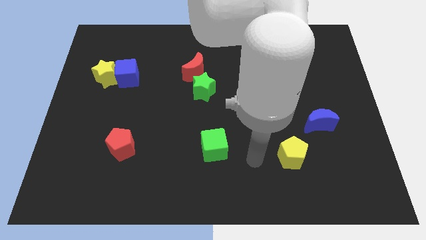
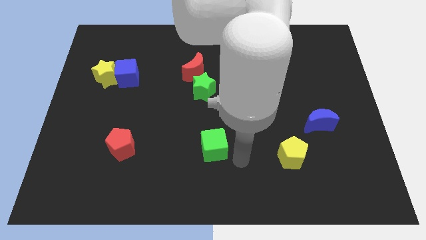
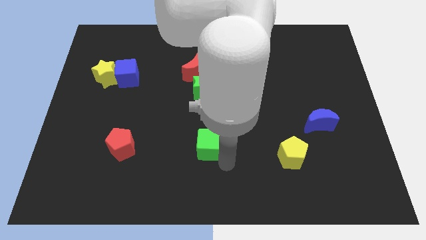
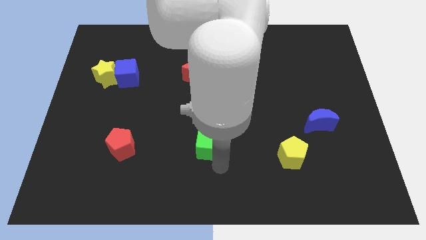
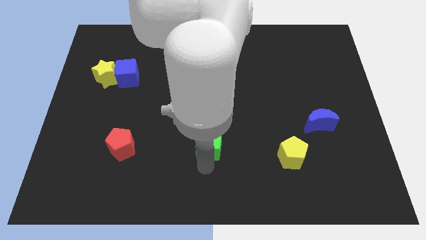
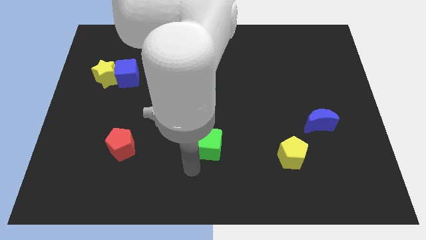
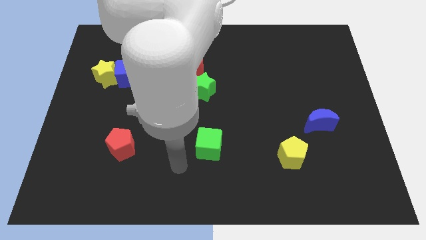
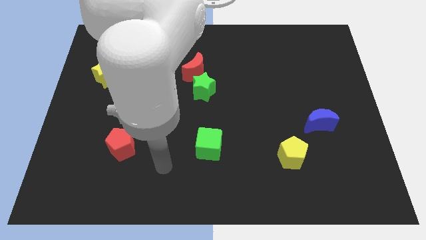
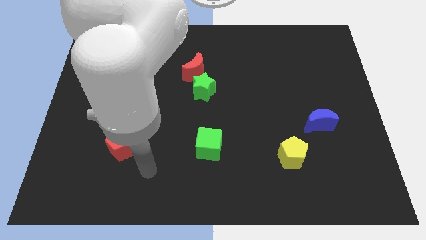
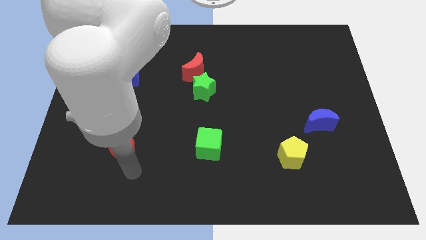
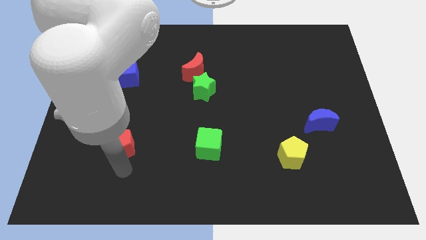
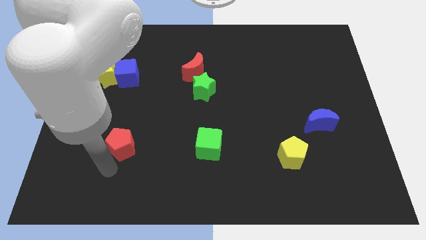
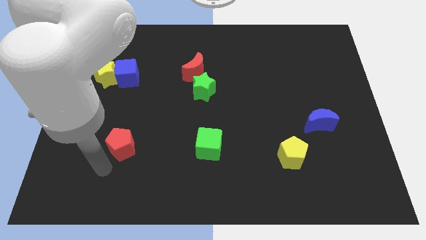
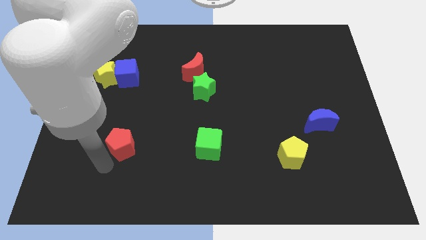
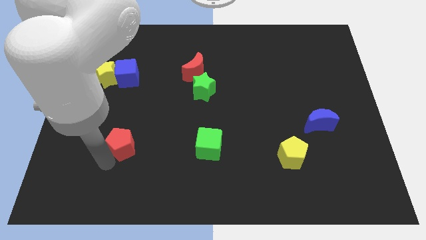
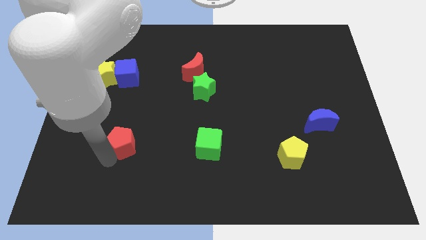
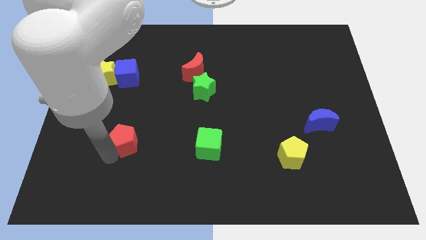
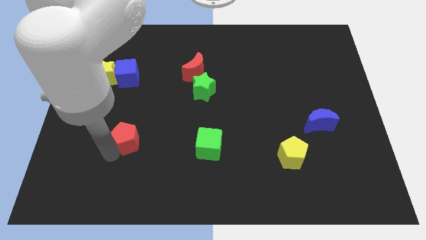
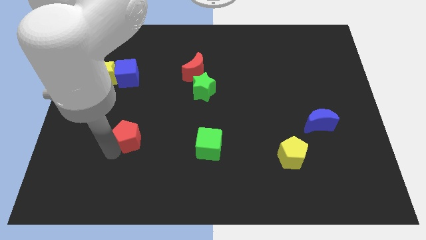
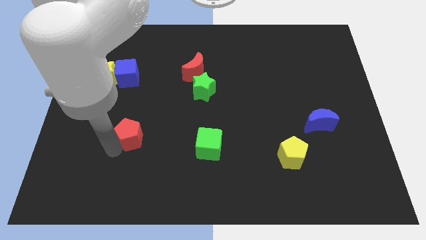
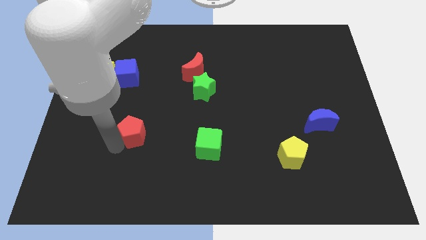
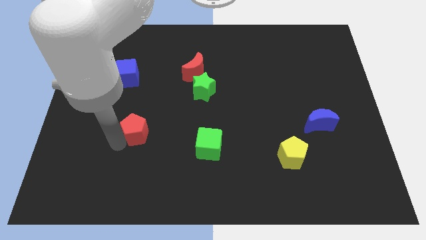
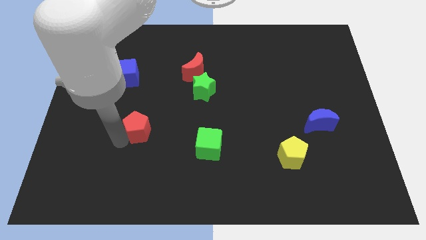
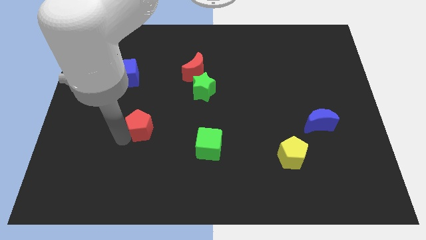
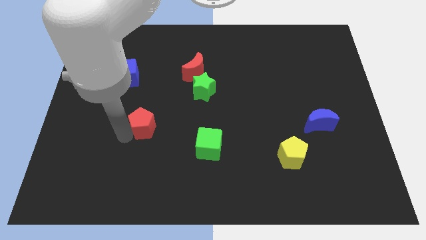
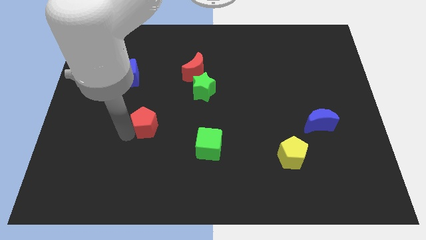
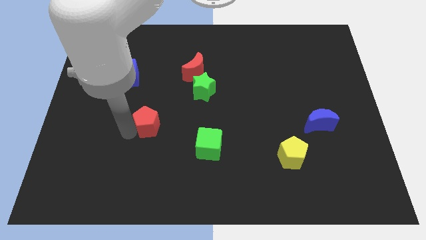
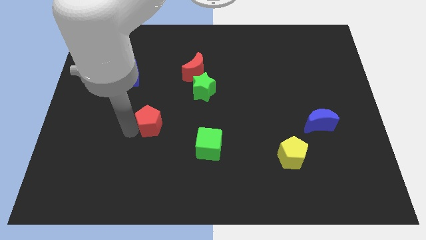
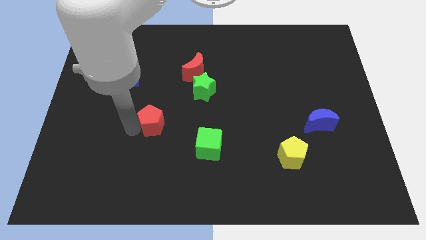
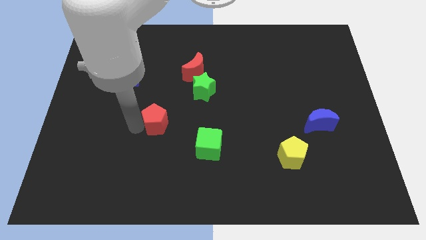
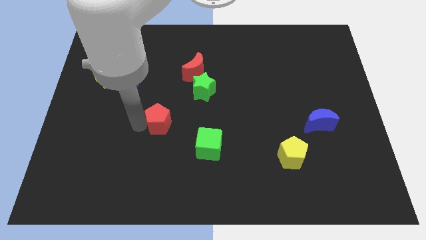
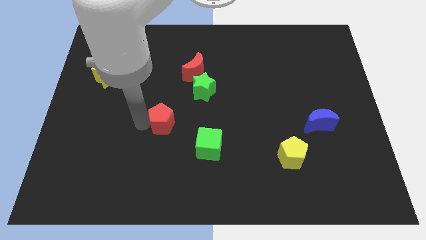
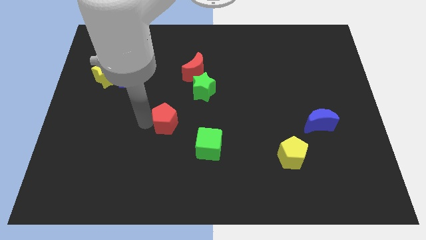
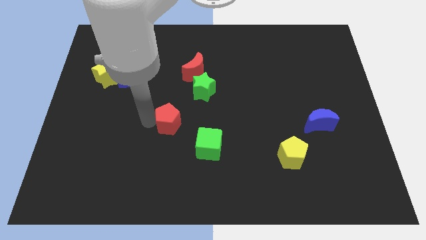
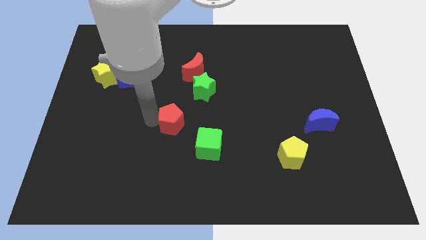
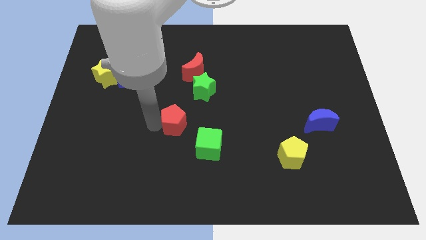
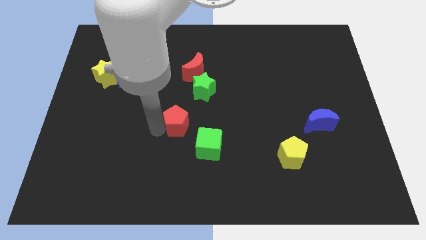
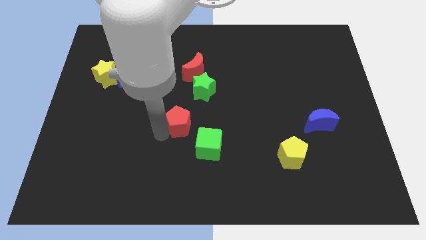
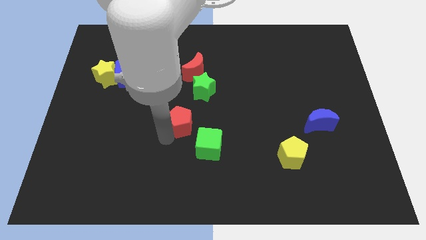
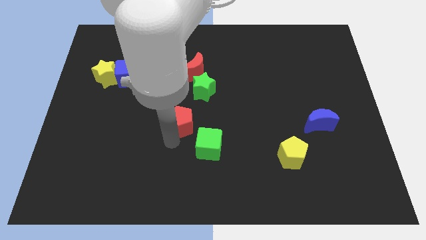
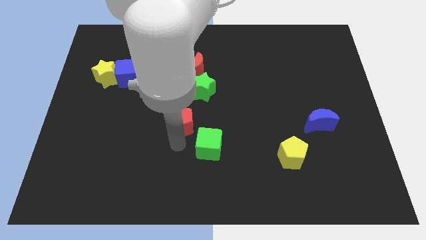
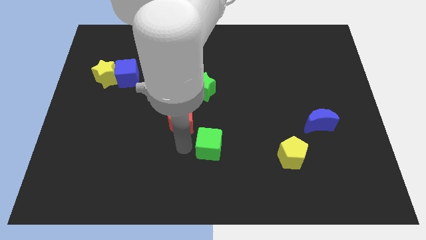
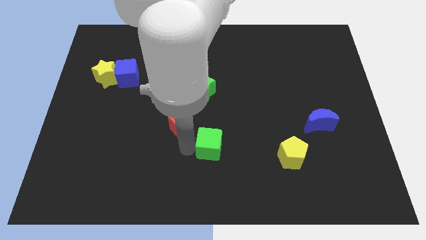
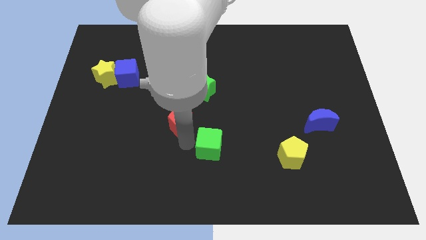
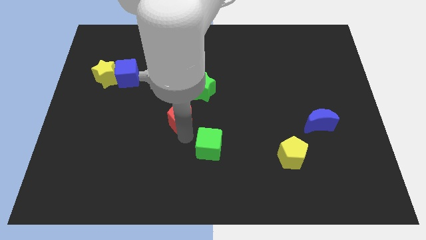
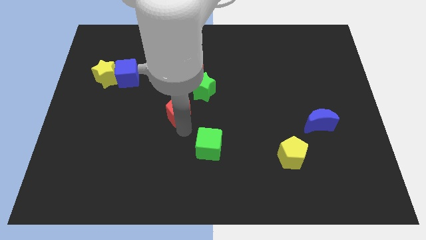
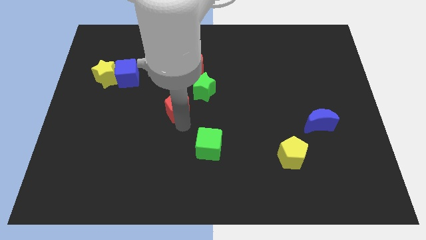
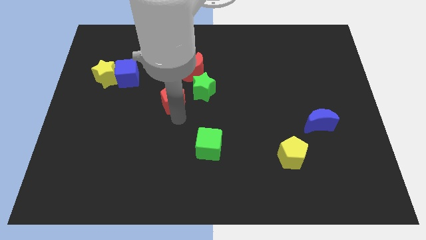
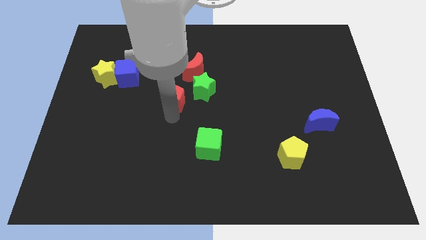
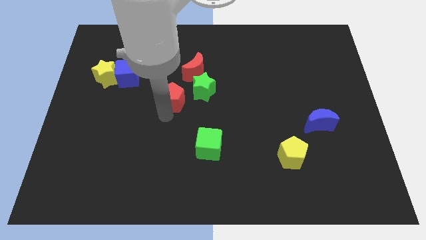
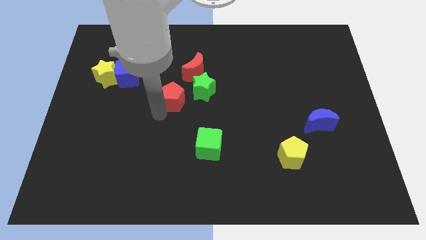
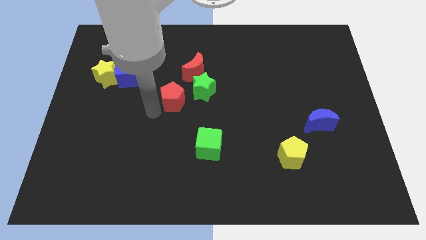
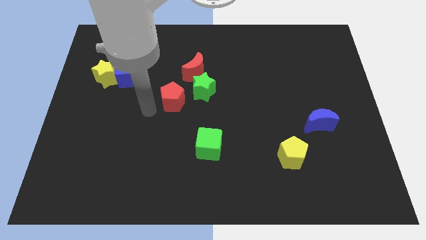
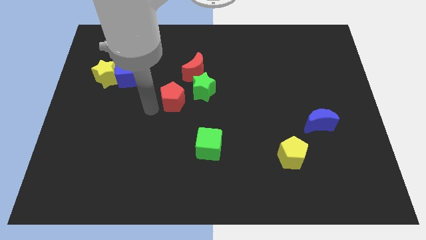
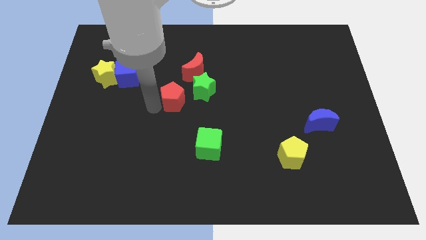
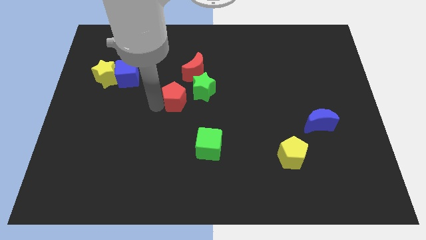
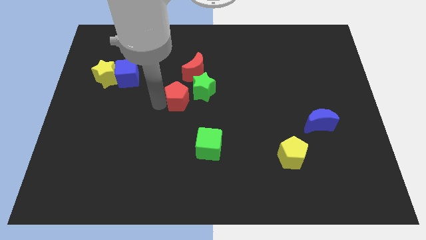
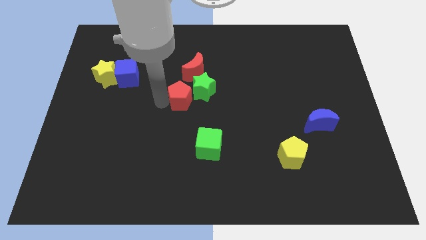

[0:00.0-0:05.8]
push the red pentagon close to the green star
